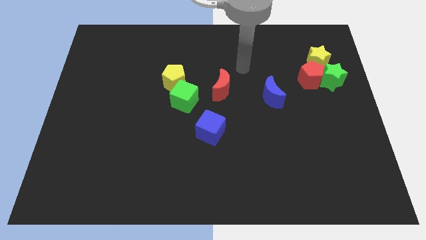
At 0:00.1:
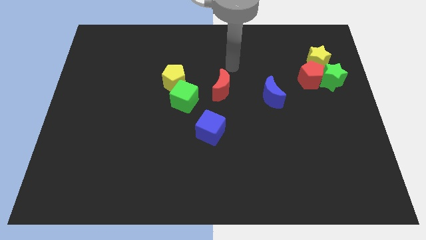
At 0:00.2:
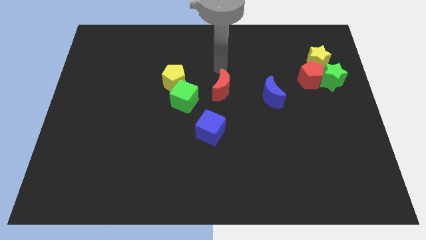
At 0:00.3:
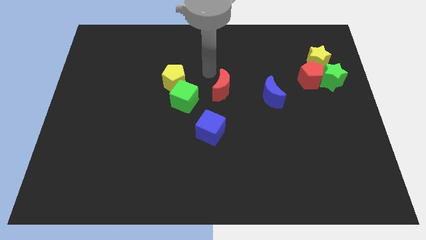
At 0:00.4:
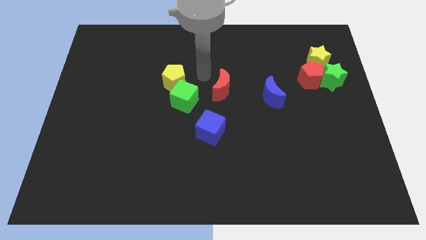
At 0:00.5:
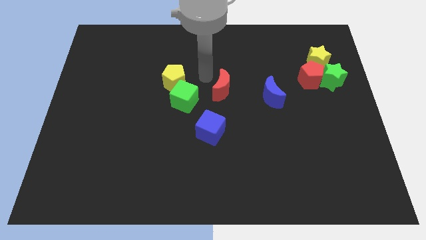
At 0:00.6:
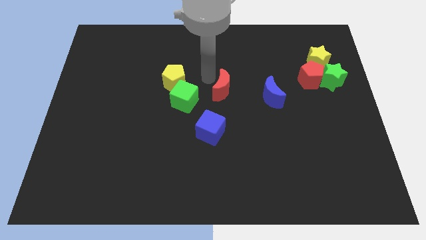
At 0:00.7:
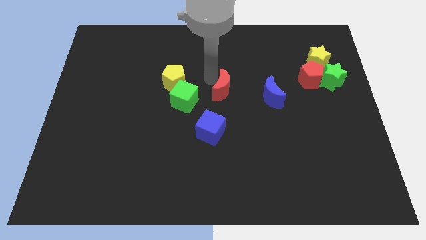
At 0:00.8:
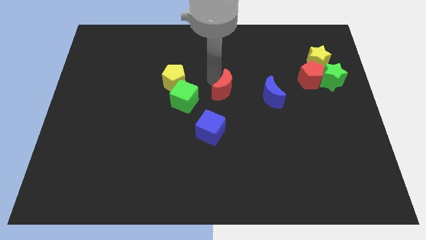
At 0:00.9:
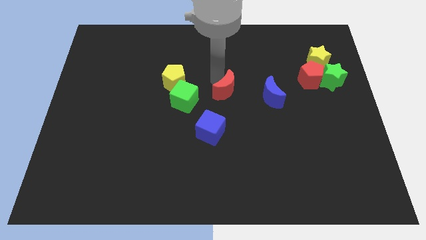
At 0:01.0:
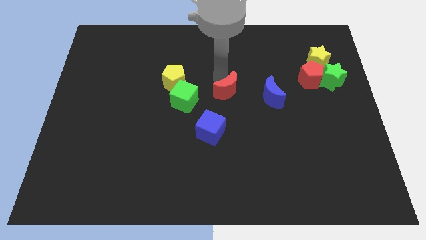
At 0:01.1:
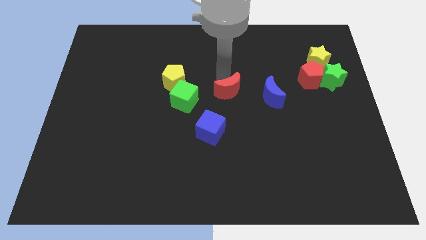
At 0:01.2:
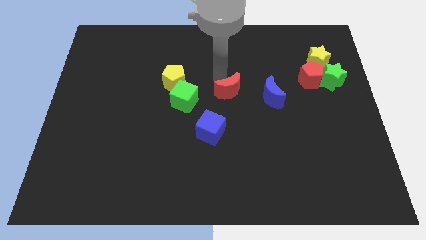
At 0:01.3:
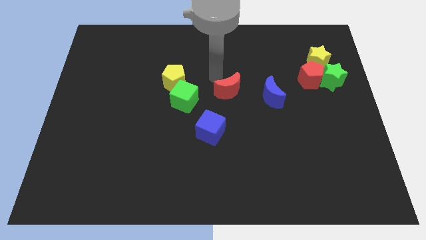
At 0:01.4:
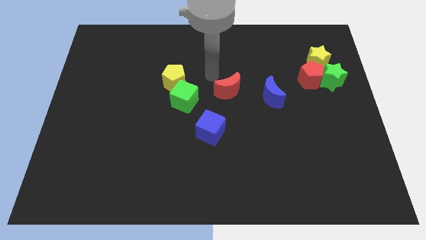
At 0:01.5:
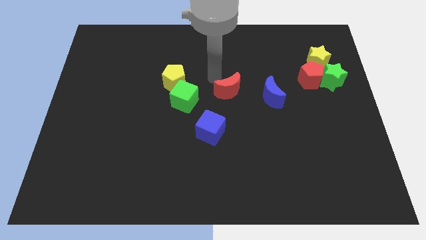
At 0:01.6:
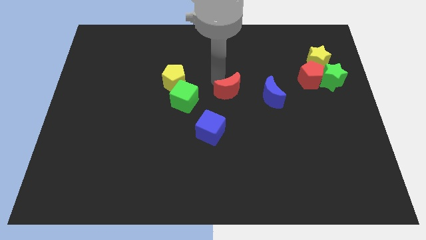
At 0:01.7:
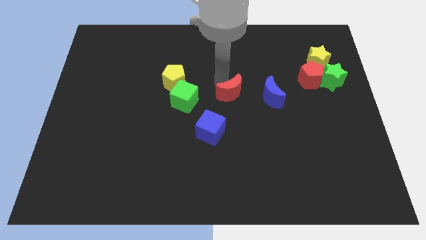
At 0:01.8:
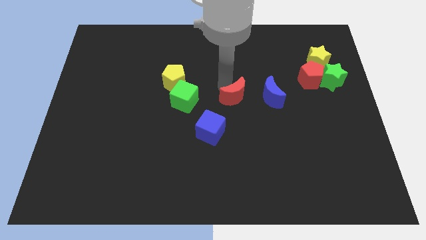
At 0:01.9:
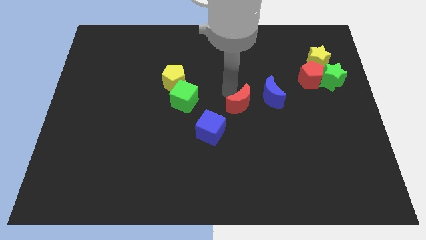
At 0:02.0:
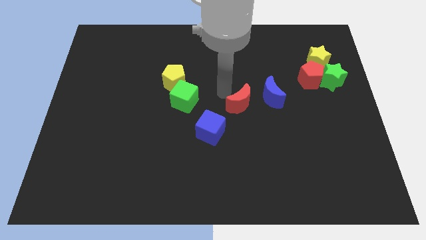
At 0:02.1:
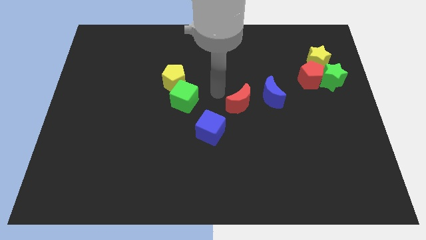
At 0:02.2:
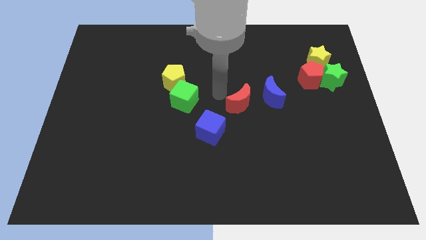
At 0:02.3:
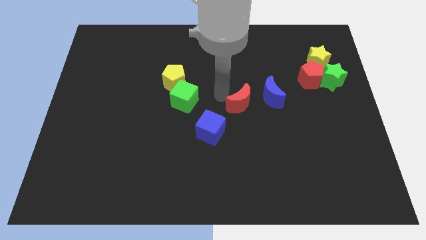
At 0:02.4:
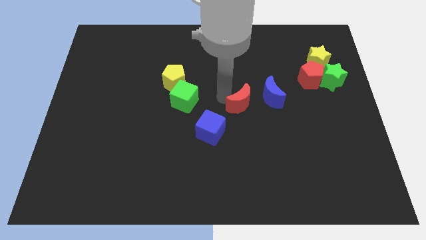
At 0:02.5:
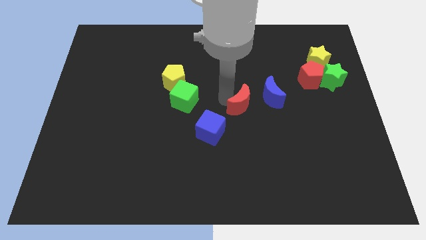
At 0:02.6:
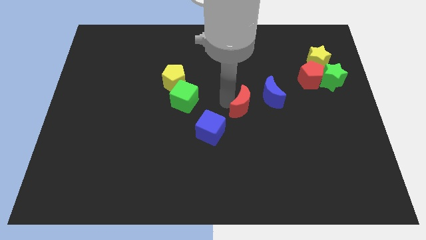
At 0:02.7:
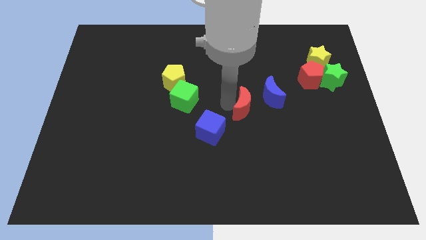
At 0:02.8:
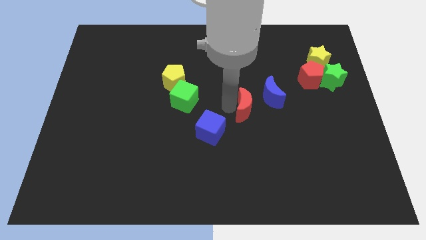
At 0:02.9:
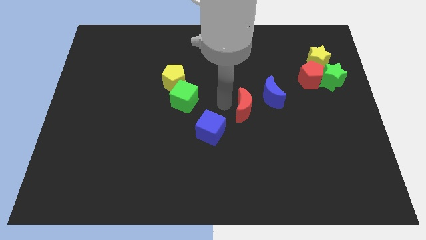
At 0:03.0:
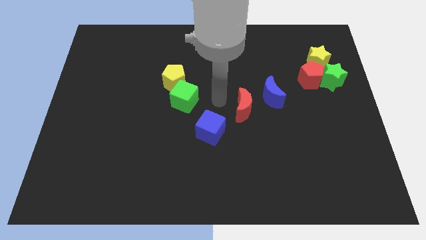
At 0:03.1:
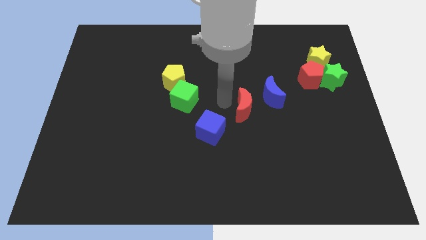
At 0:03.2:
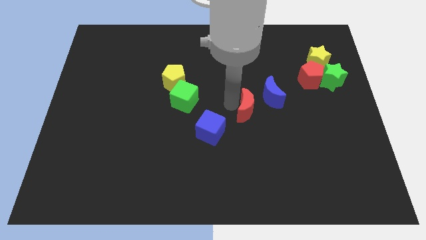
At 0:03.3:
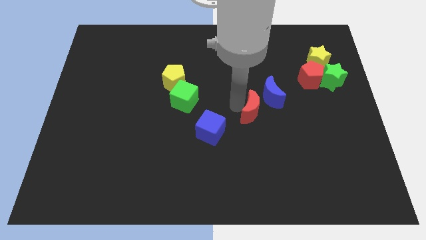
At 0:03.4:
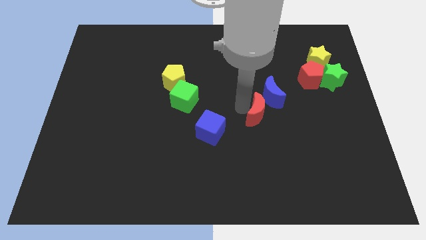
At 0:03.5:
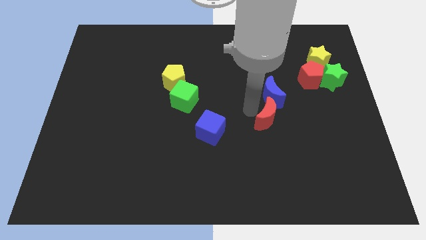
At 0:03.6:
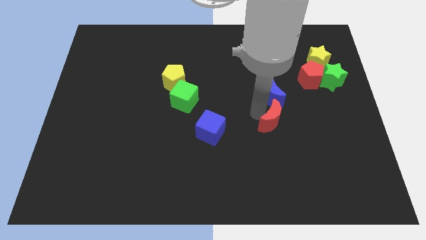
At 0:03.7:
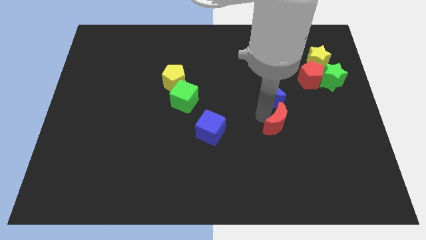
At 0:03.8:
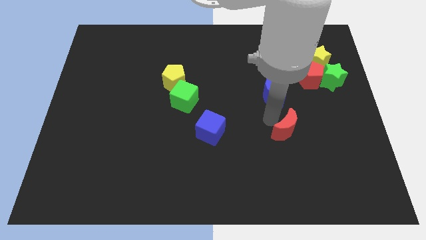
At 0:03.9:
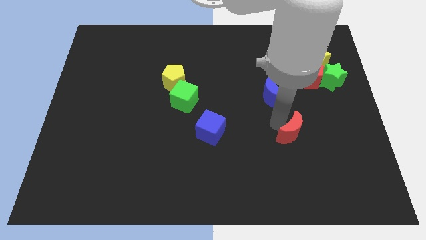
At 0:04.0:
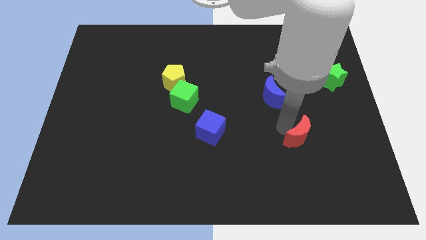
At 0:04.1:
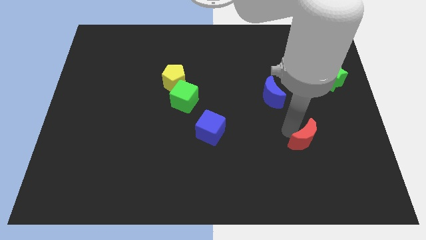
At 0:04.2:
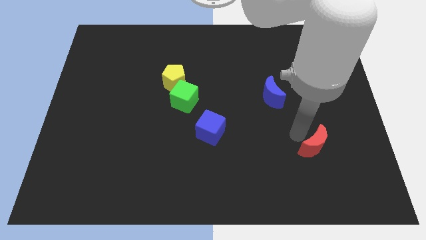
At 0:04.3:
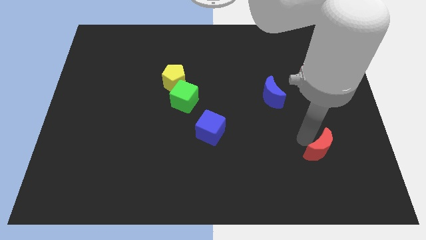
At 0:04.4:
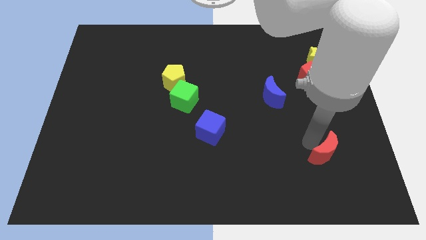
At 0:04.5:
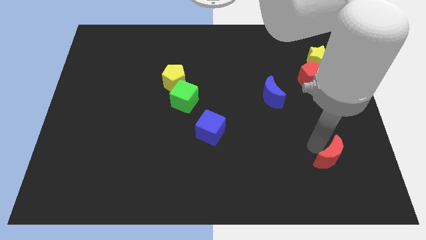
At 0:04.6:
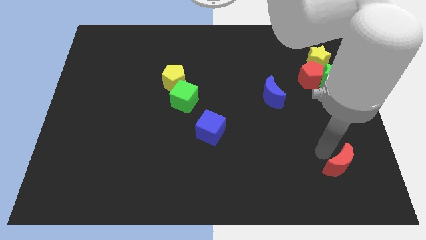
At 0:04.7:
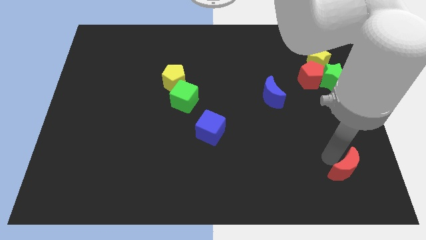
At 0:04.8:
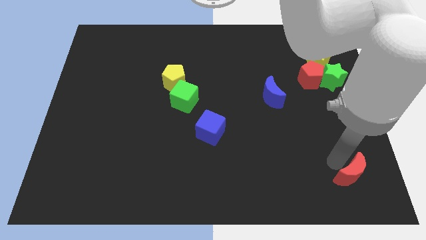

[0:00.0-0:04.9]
put the red moon to the bottom right of the board

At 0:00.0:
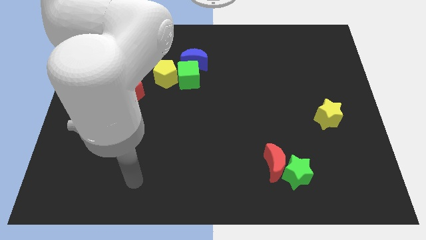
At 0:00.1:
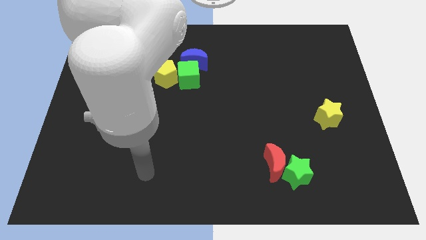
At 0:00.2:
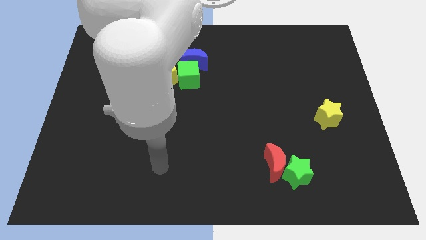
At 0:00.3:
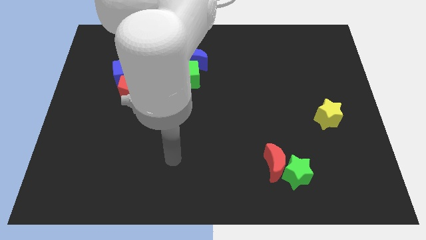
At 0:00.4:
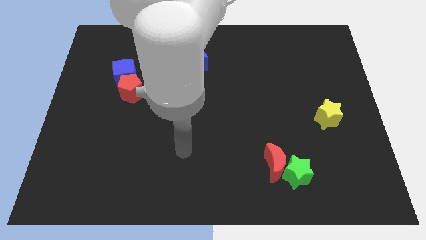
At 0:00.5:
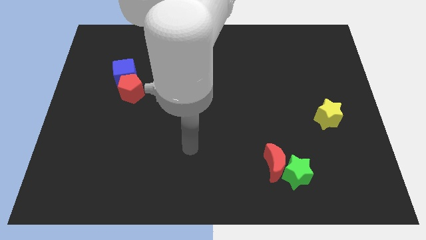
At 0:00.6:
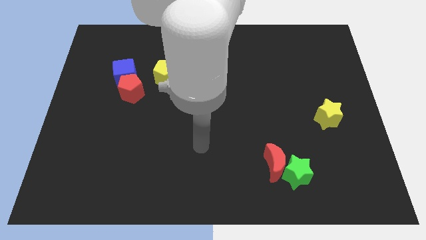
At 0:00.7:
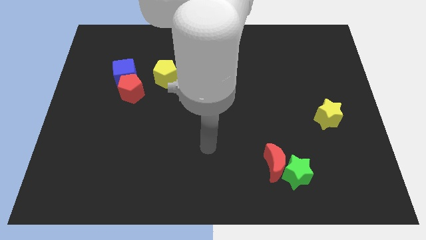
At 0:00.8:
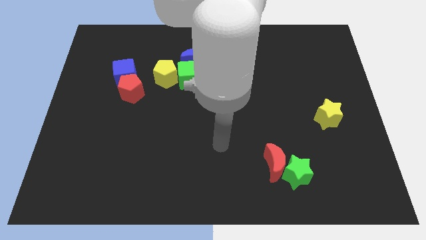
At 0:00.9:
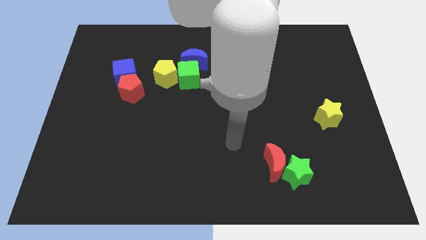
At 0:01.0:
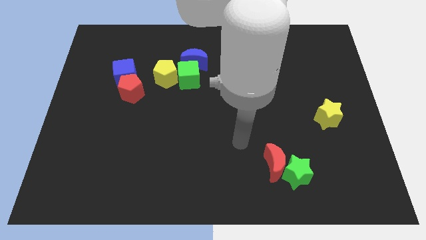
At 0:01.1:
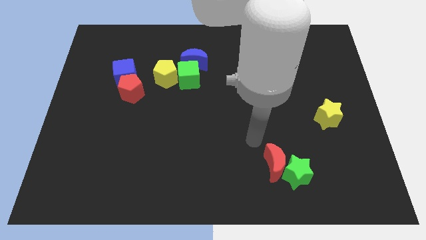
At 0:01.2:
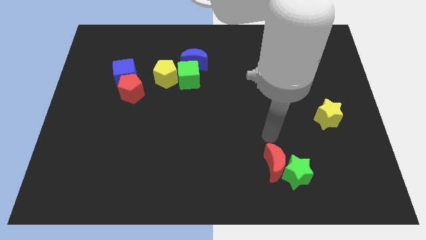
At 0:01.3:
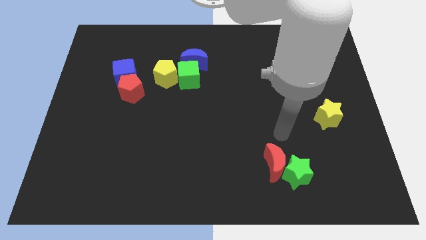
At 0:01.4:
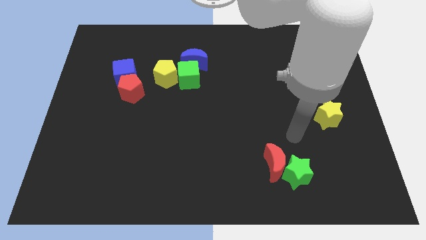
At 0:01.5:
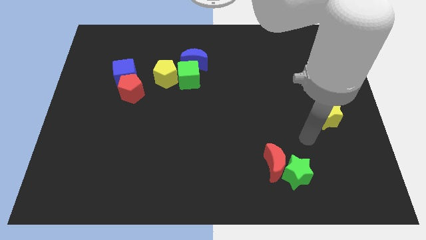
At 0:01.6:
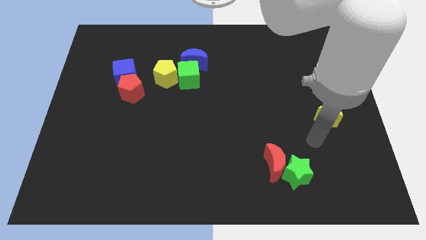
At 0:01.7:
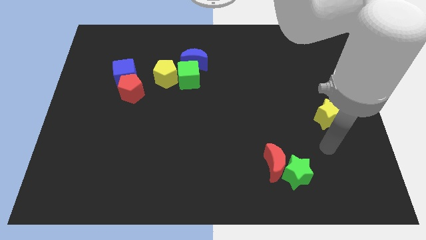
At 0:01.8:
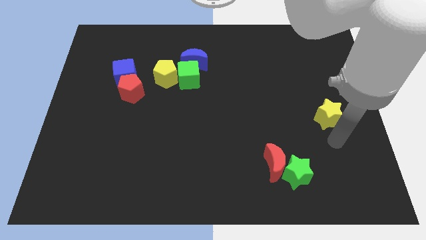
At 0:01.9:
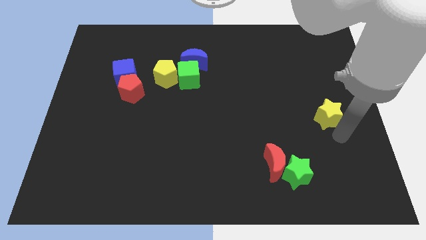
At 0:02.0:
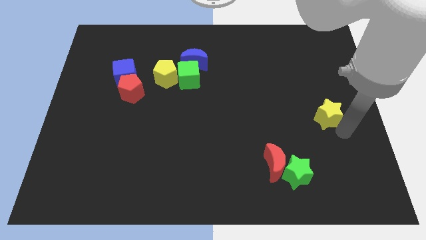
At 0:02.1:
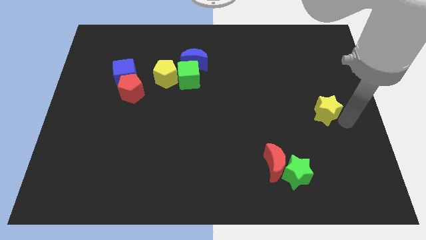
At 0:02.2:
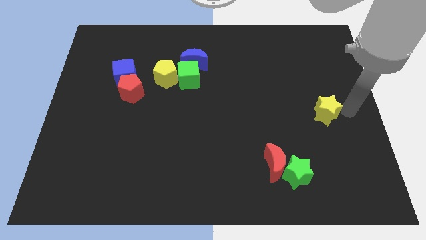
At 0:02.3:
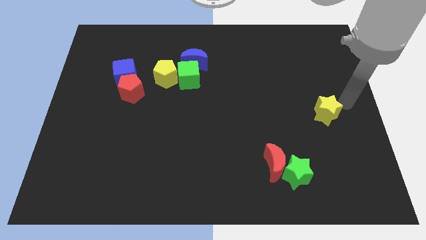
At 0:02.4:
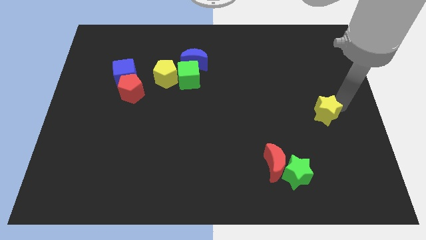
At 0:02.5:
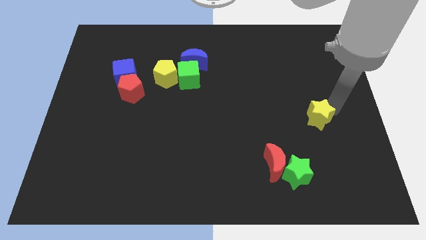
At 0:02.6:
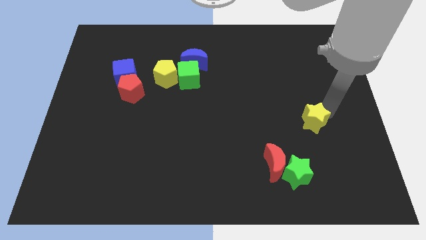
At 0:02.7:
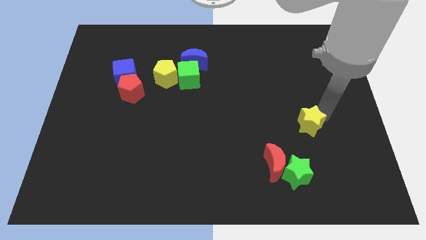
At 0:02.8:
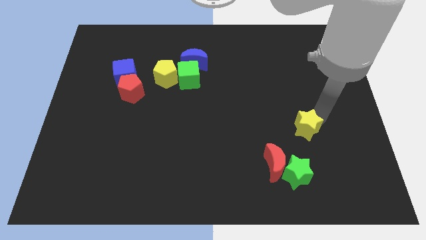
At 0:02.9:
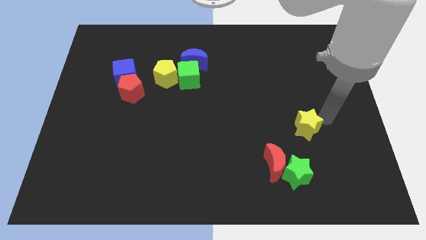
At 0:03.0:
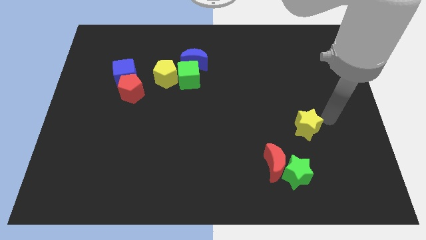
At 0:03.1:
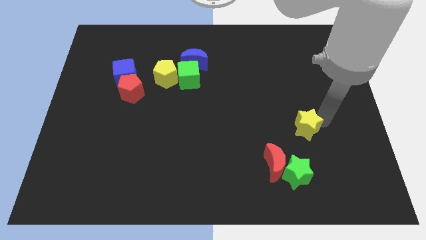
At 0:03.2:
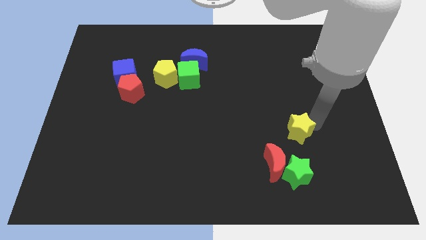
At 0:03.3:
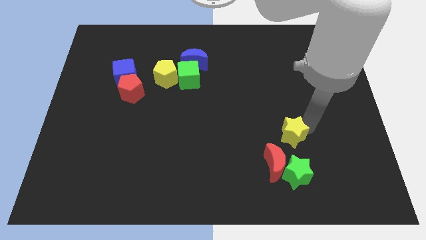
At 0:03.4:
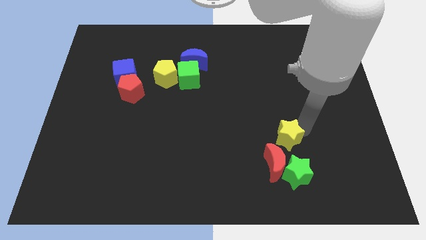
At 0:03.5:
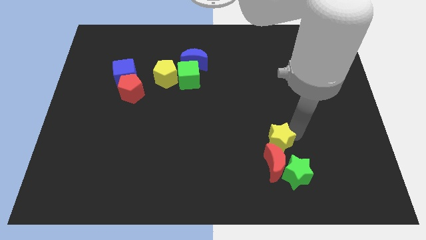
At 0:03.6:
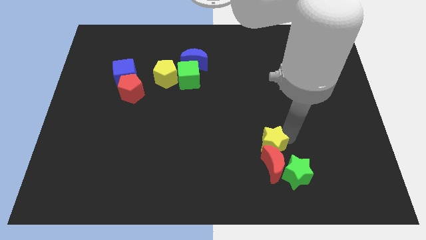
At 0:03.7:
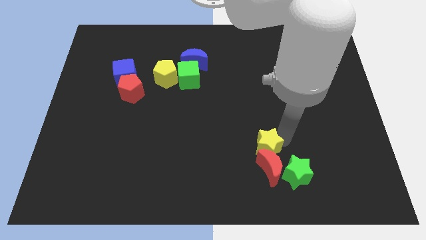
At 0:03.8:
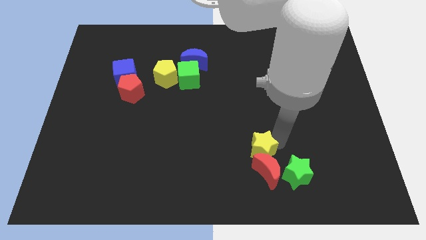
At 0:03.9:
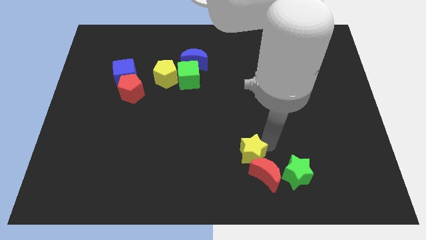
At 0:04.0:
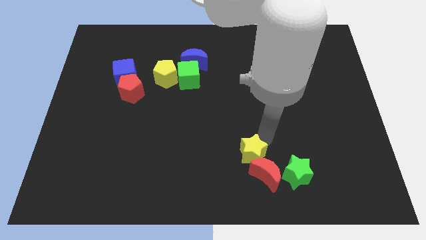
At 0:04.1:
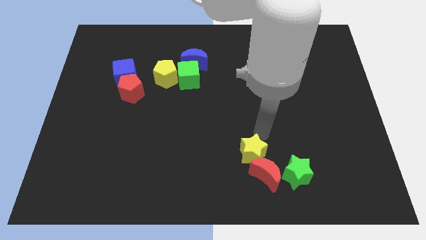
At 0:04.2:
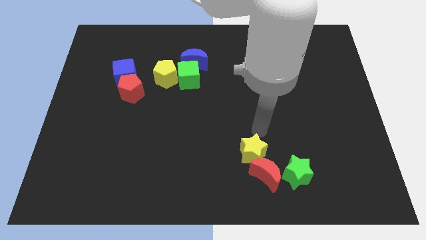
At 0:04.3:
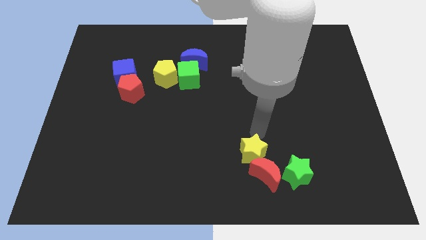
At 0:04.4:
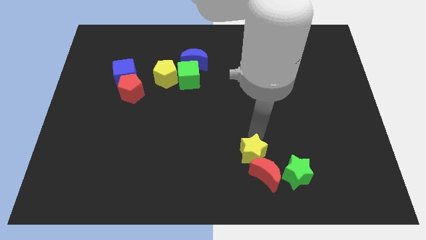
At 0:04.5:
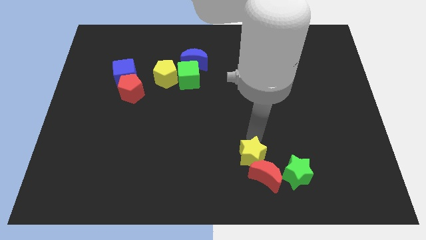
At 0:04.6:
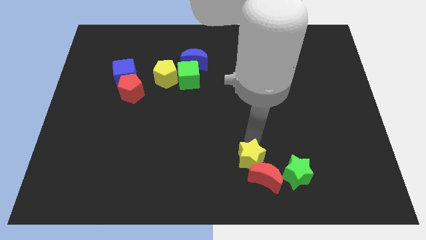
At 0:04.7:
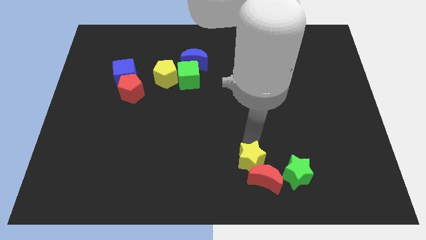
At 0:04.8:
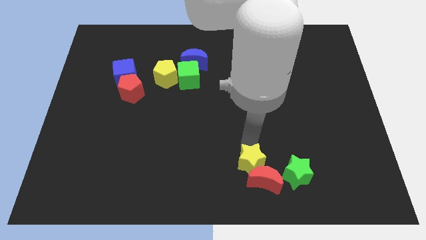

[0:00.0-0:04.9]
push the yellow star to the bottom side
